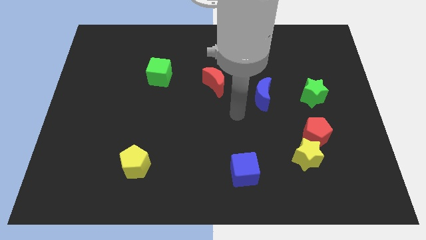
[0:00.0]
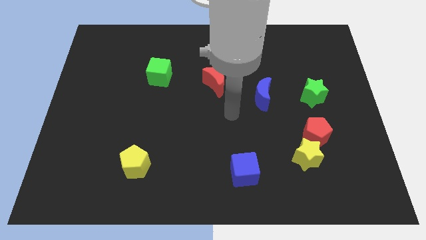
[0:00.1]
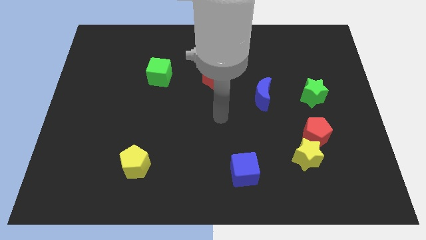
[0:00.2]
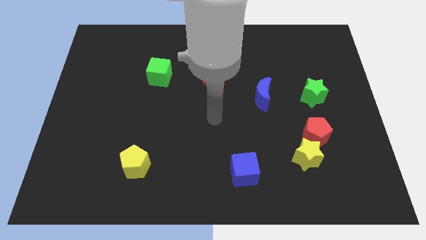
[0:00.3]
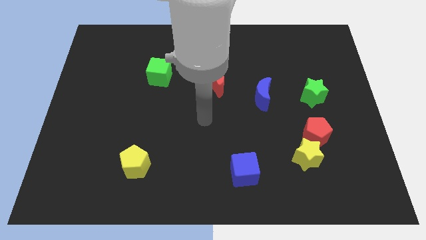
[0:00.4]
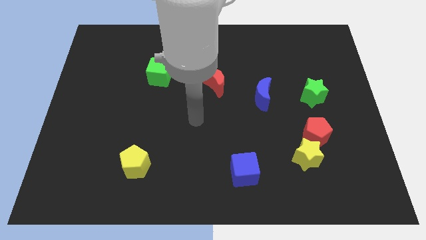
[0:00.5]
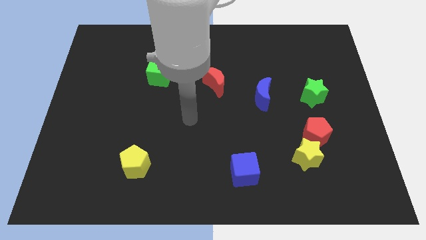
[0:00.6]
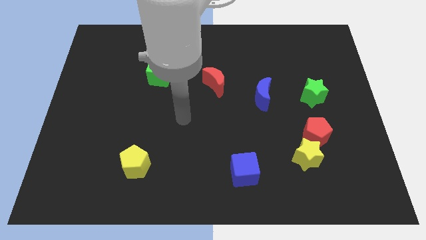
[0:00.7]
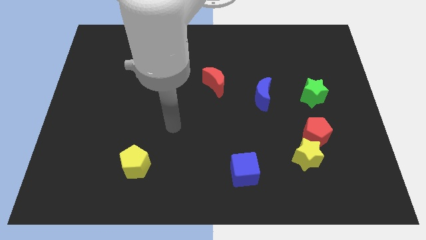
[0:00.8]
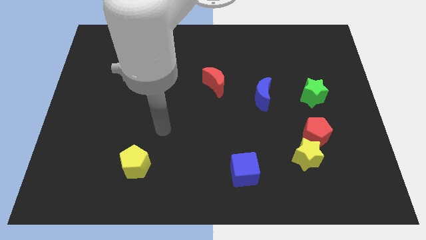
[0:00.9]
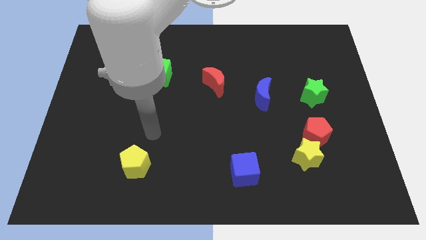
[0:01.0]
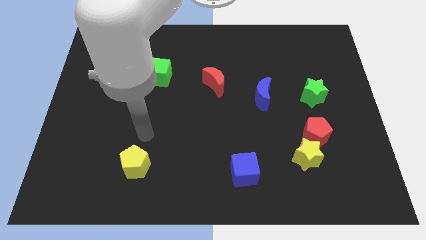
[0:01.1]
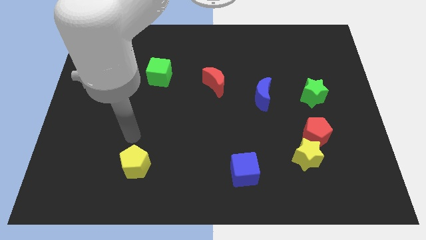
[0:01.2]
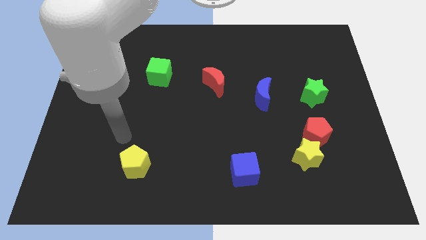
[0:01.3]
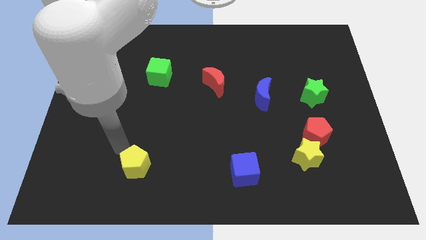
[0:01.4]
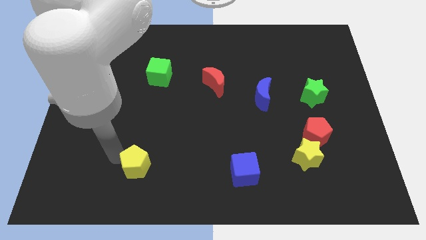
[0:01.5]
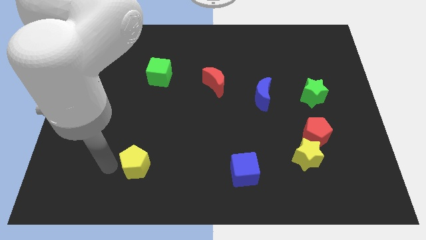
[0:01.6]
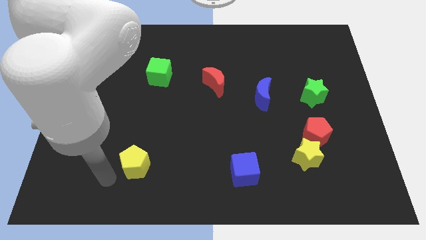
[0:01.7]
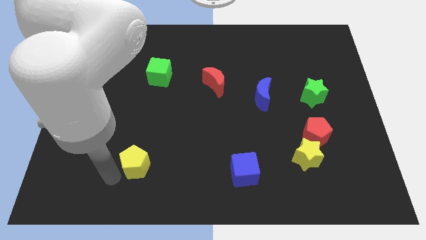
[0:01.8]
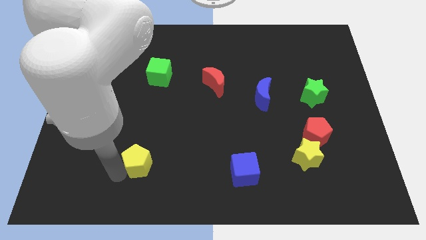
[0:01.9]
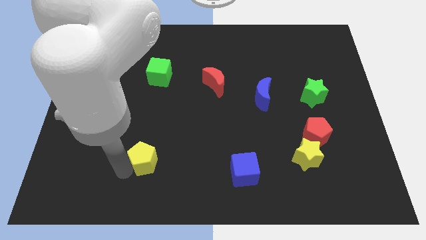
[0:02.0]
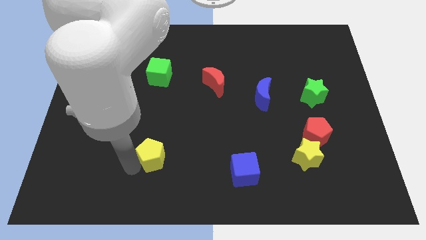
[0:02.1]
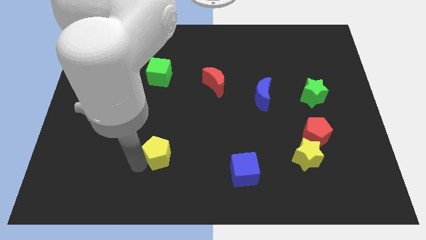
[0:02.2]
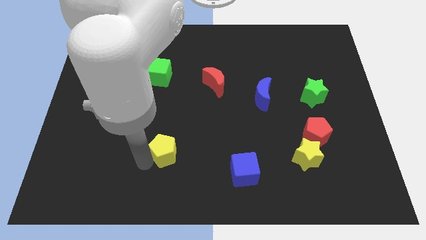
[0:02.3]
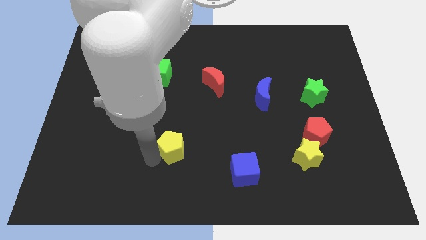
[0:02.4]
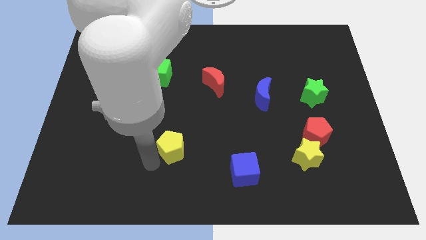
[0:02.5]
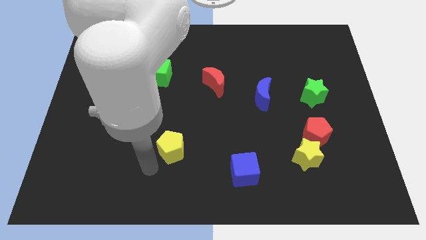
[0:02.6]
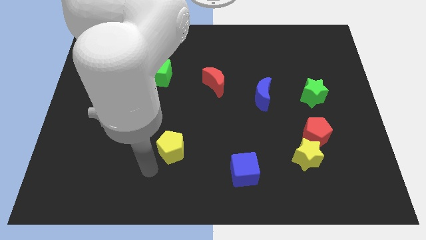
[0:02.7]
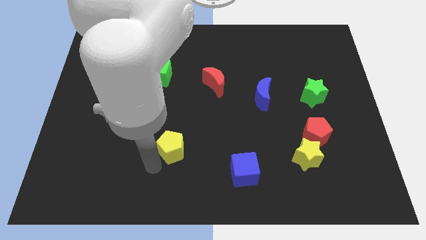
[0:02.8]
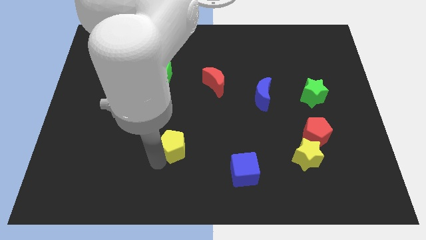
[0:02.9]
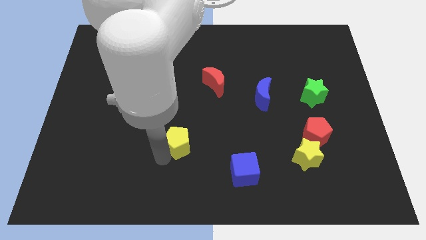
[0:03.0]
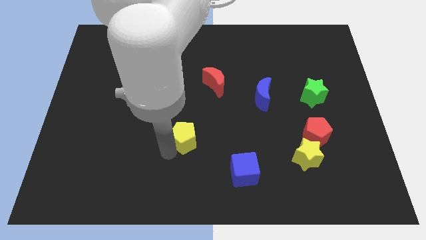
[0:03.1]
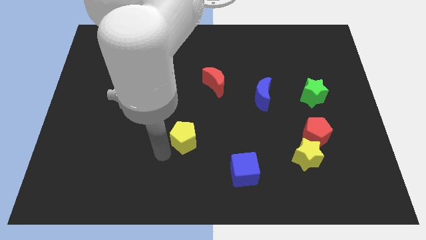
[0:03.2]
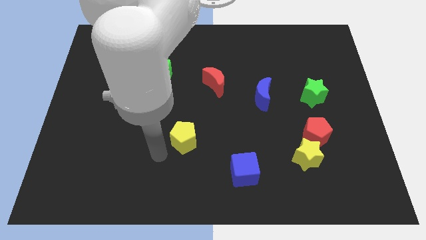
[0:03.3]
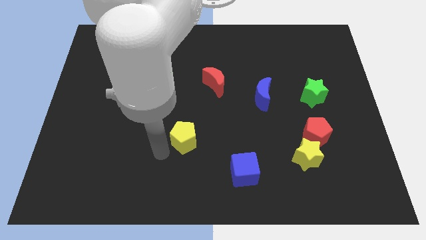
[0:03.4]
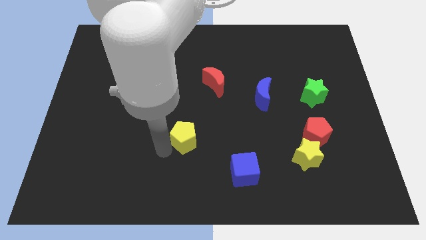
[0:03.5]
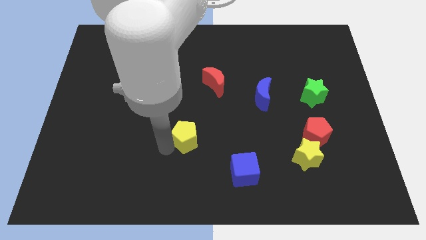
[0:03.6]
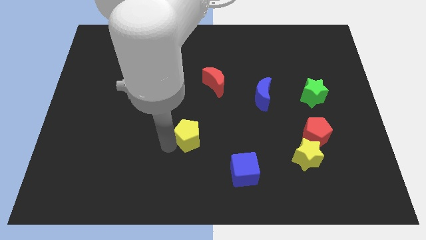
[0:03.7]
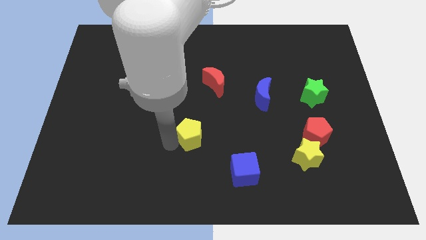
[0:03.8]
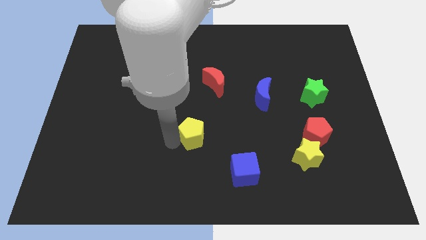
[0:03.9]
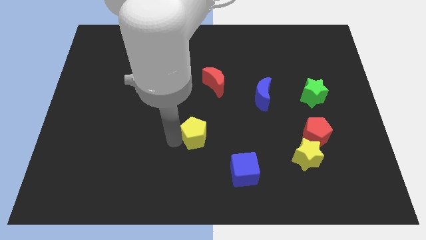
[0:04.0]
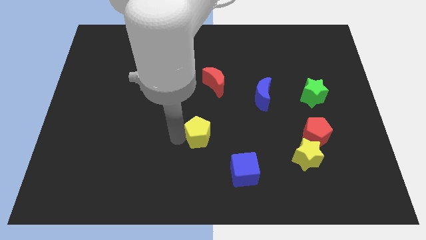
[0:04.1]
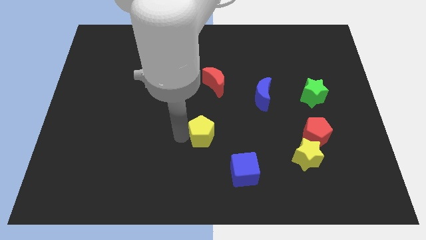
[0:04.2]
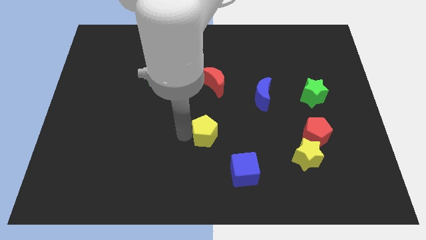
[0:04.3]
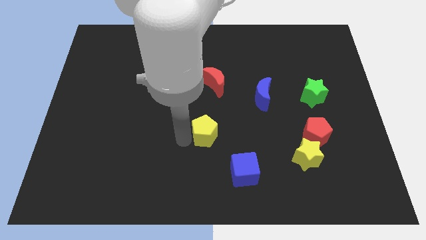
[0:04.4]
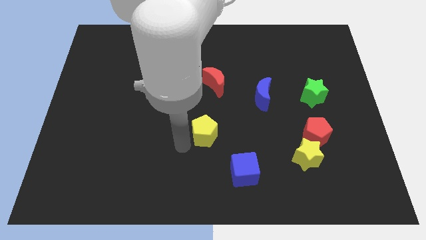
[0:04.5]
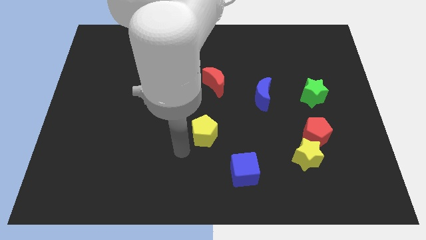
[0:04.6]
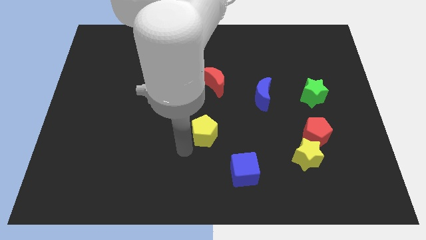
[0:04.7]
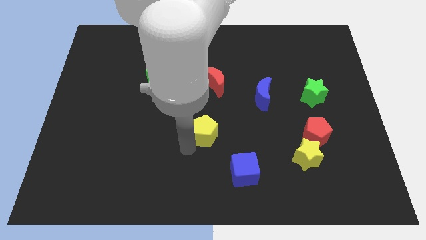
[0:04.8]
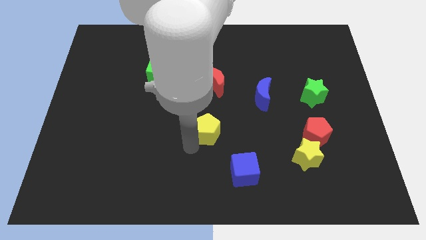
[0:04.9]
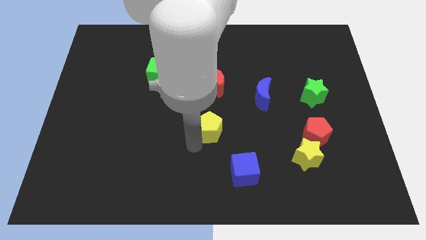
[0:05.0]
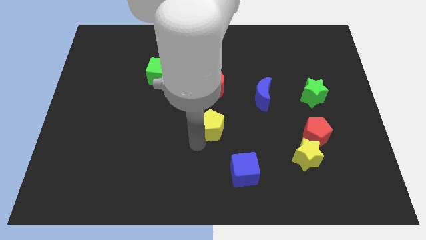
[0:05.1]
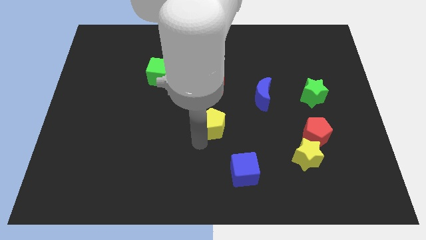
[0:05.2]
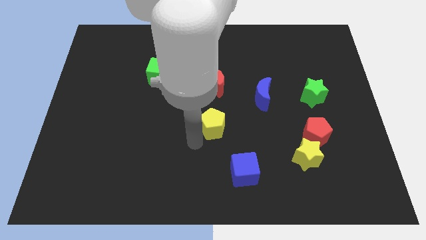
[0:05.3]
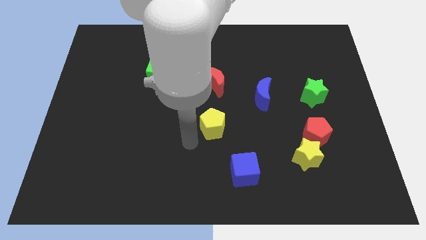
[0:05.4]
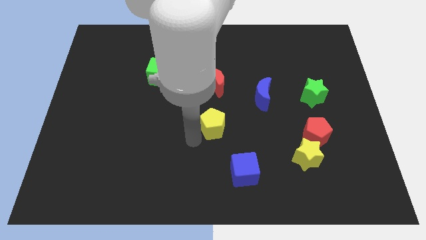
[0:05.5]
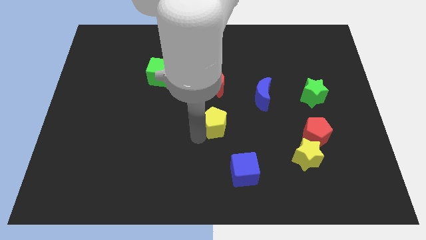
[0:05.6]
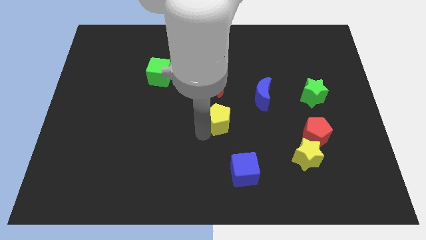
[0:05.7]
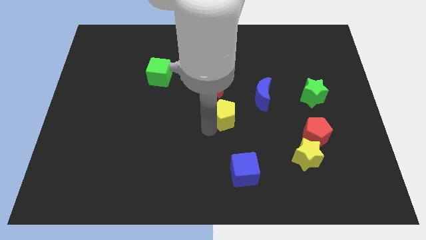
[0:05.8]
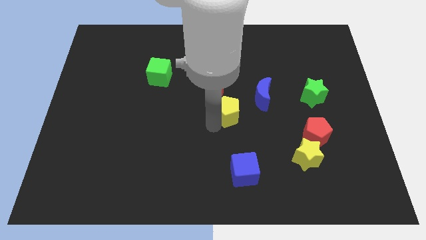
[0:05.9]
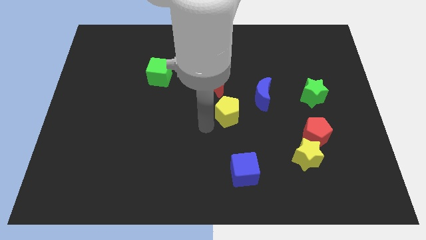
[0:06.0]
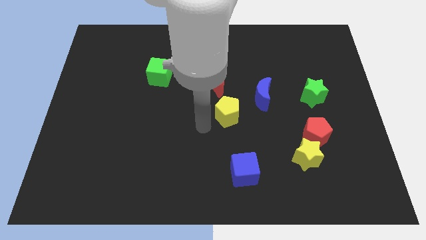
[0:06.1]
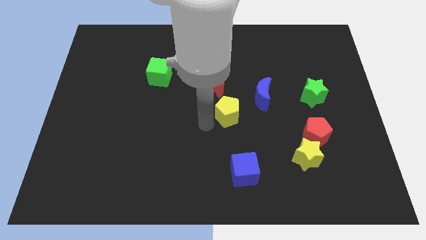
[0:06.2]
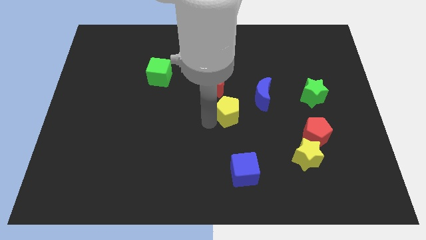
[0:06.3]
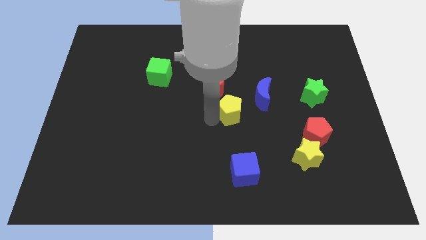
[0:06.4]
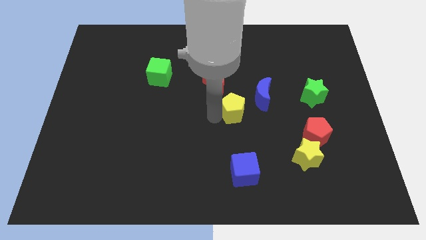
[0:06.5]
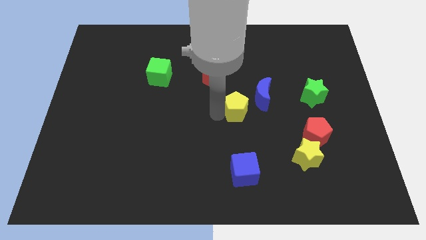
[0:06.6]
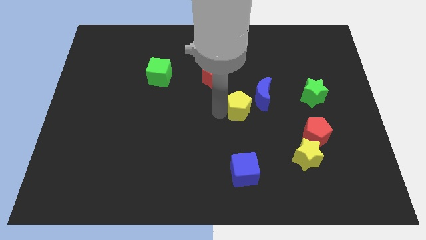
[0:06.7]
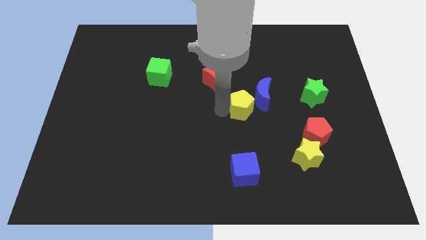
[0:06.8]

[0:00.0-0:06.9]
move the yellow pentagon towards the blue moon
